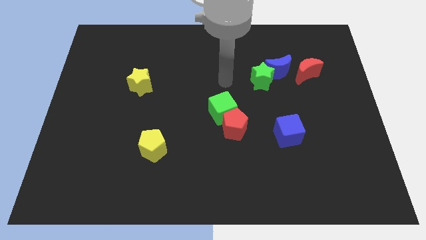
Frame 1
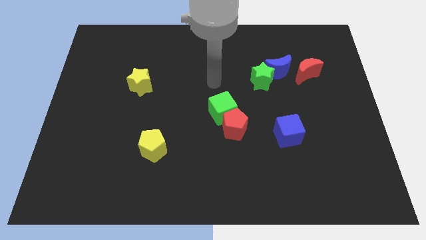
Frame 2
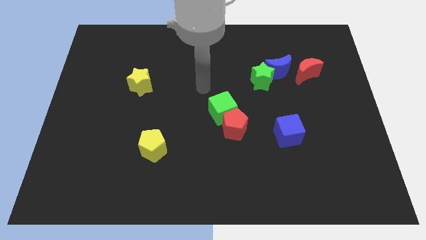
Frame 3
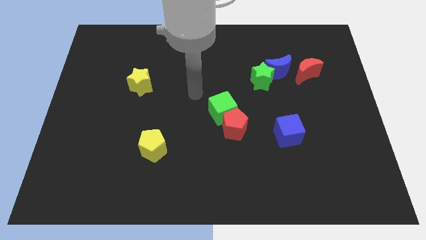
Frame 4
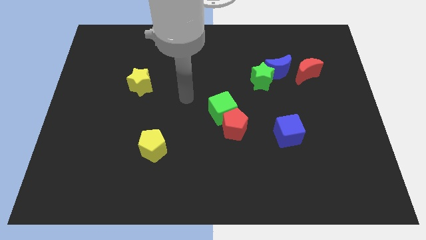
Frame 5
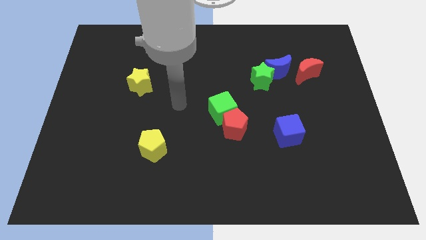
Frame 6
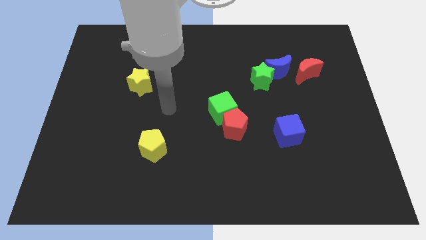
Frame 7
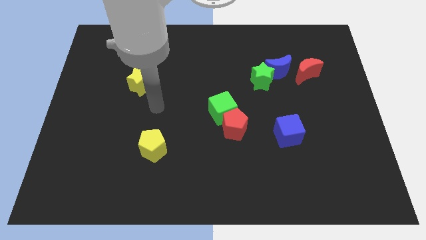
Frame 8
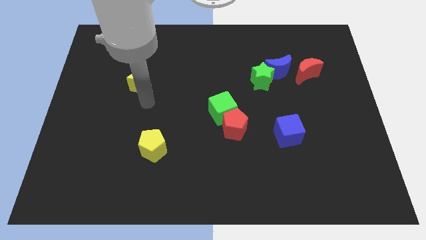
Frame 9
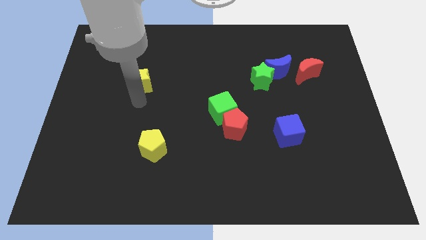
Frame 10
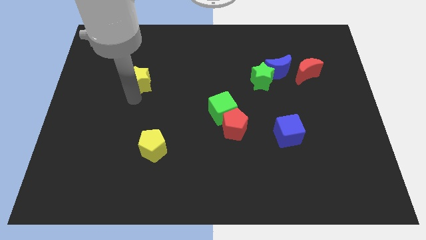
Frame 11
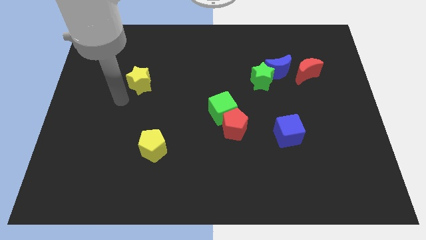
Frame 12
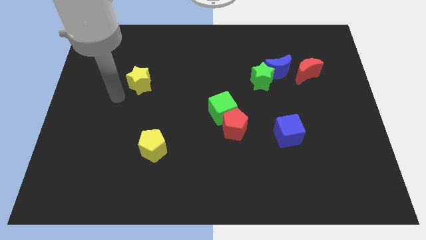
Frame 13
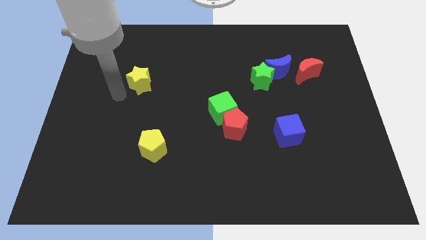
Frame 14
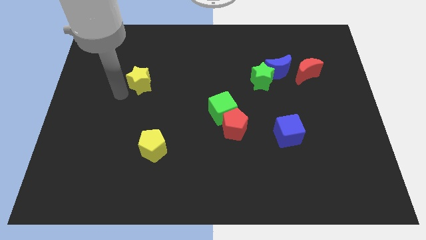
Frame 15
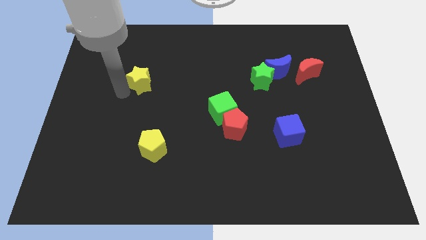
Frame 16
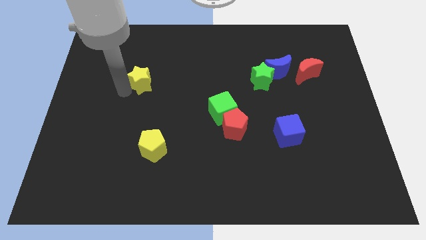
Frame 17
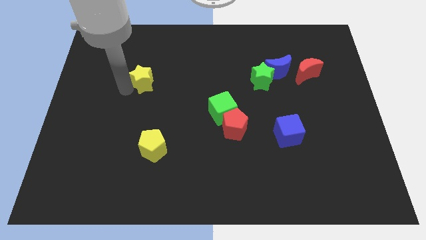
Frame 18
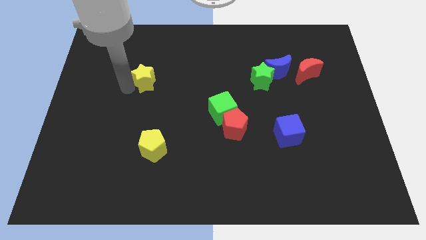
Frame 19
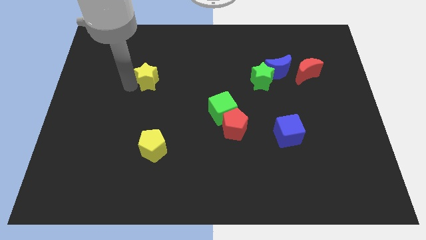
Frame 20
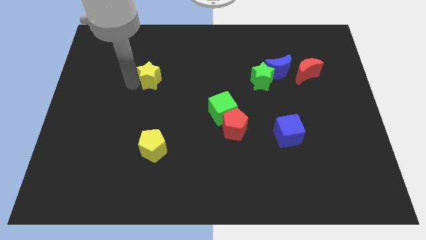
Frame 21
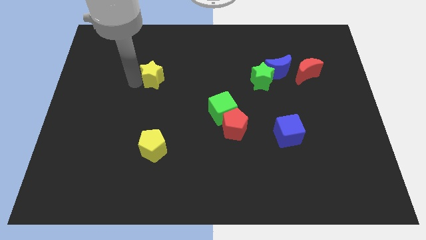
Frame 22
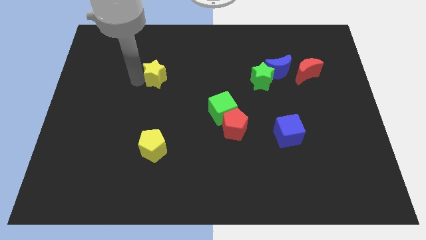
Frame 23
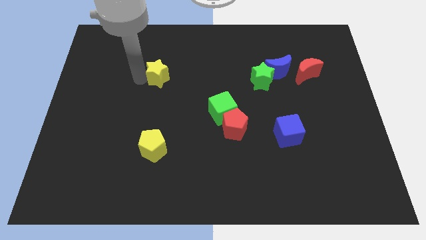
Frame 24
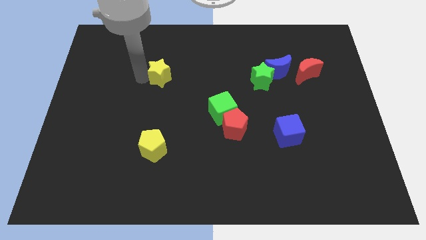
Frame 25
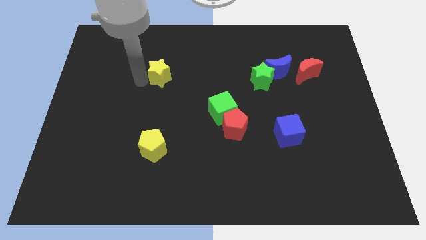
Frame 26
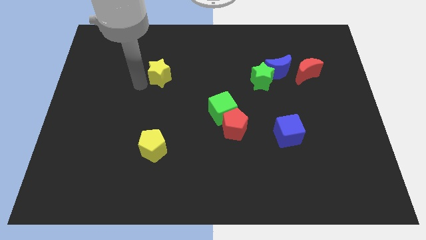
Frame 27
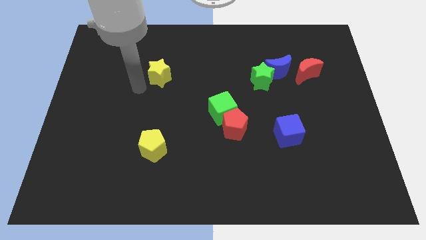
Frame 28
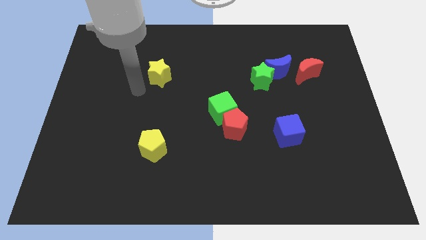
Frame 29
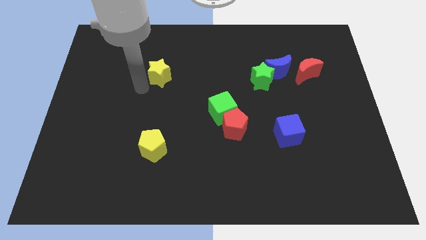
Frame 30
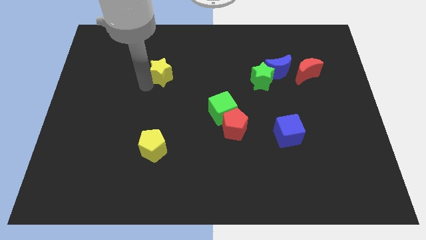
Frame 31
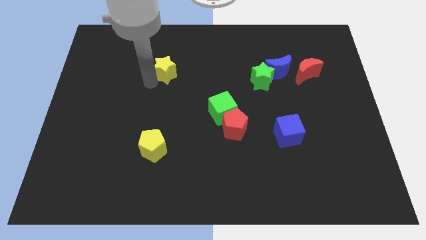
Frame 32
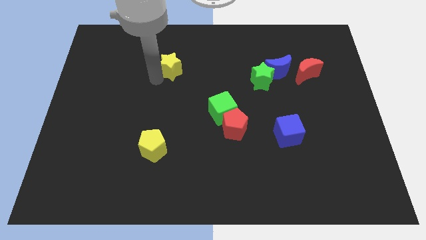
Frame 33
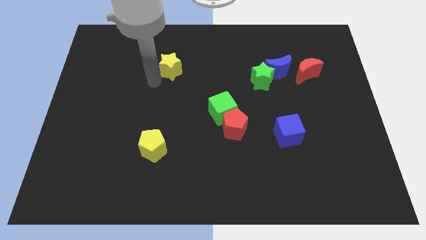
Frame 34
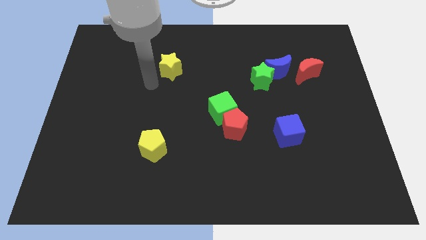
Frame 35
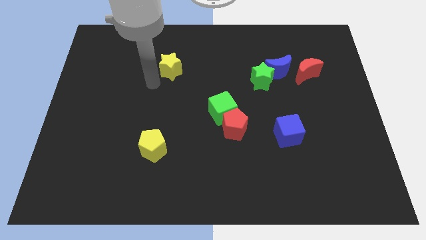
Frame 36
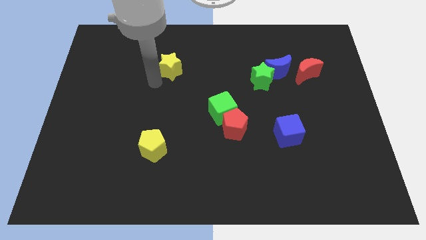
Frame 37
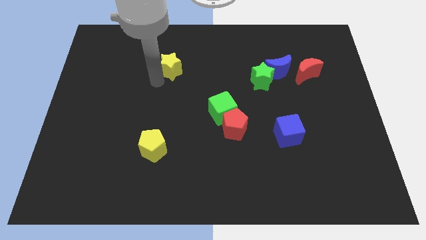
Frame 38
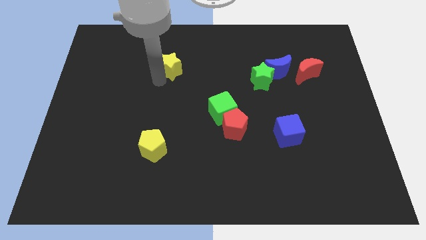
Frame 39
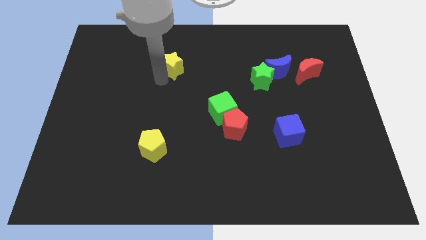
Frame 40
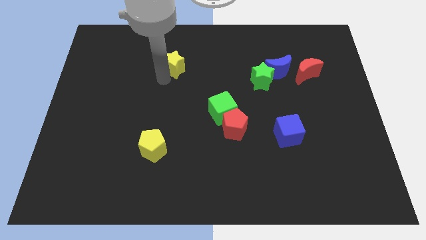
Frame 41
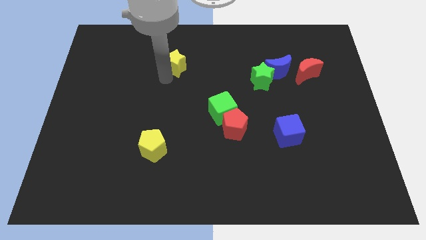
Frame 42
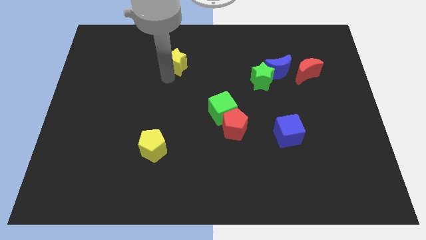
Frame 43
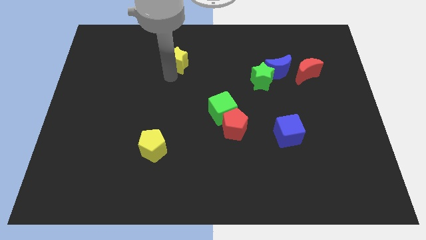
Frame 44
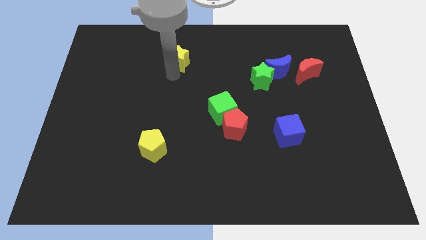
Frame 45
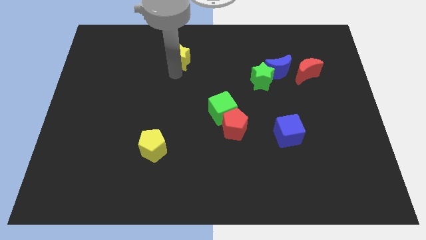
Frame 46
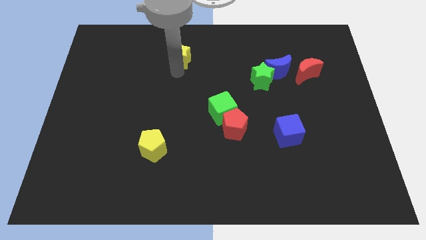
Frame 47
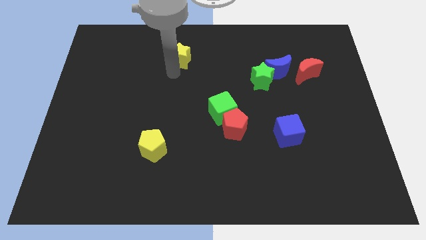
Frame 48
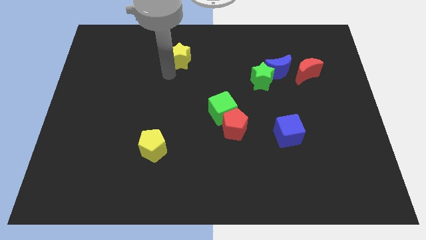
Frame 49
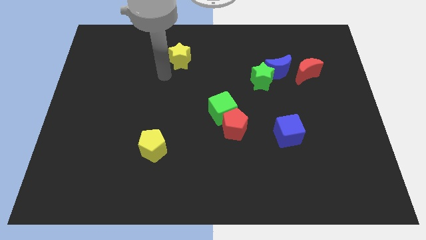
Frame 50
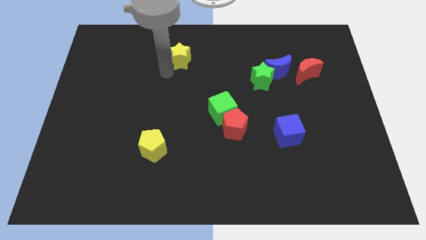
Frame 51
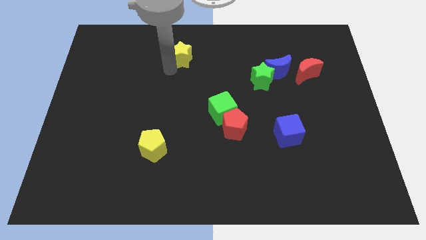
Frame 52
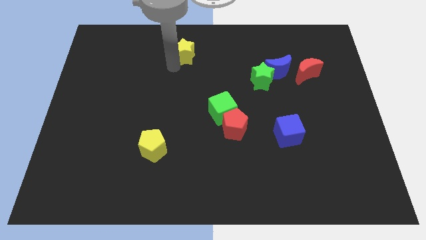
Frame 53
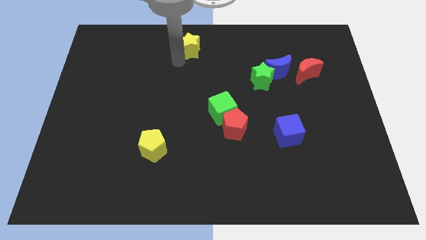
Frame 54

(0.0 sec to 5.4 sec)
slide the yellow star to the top side

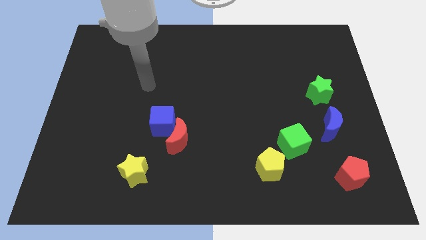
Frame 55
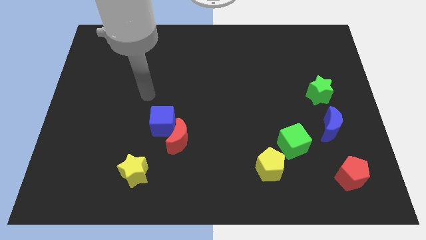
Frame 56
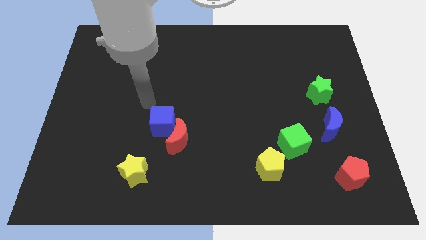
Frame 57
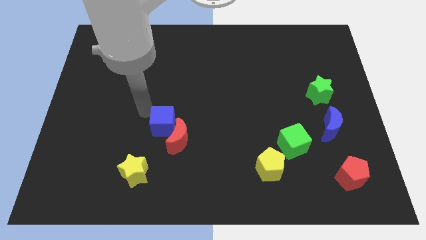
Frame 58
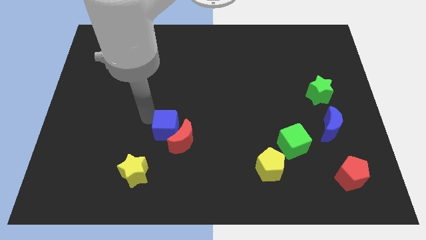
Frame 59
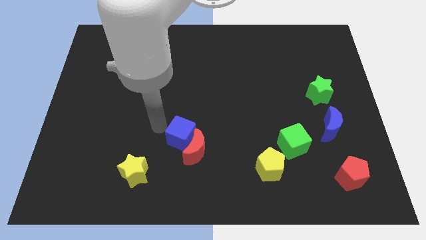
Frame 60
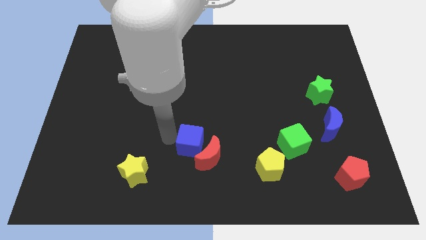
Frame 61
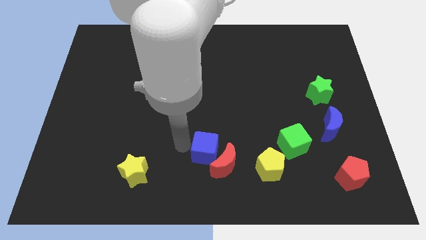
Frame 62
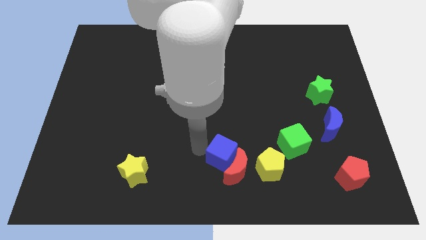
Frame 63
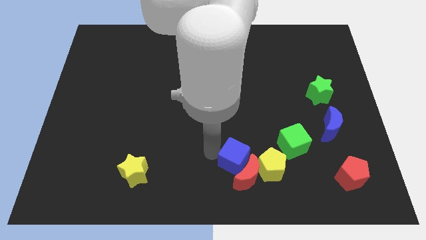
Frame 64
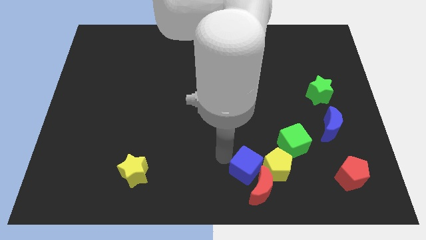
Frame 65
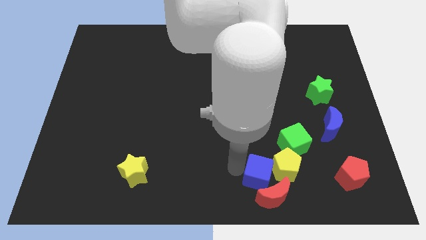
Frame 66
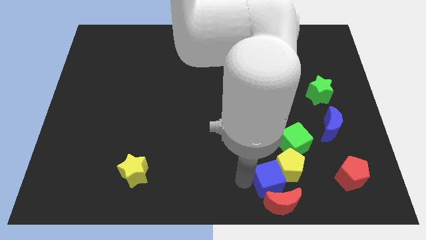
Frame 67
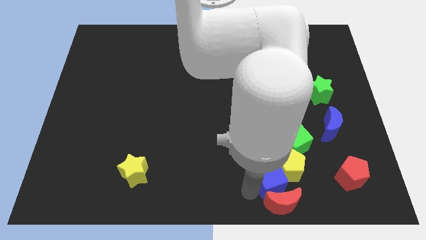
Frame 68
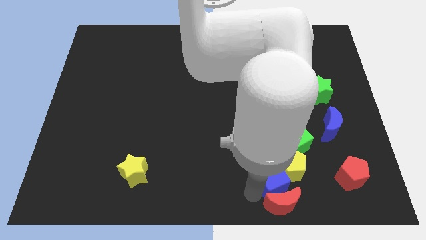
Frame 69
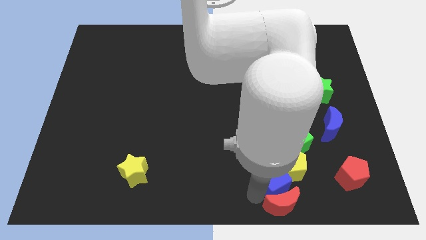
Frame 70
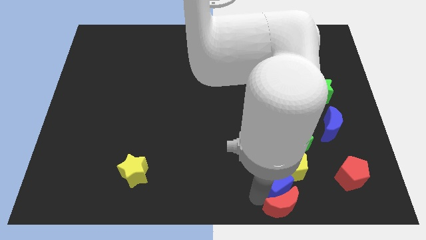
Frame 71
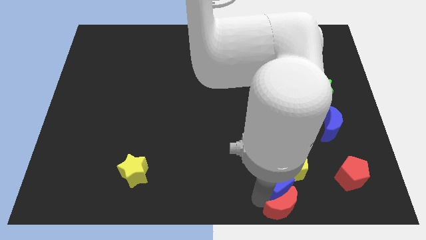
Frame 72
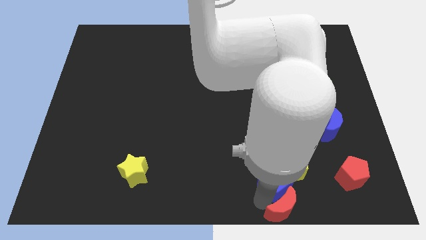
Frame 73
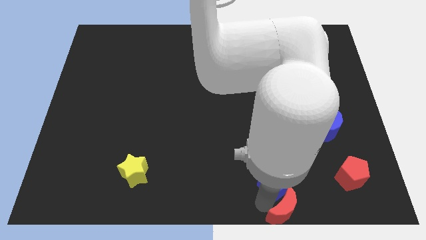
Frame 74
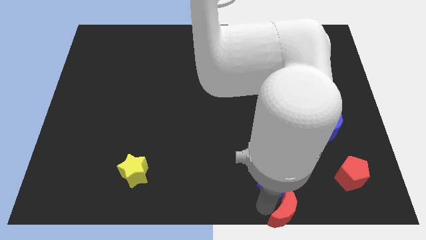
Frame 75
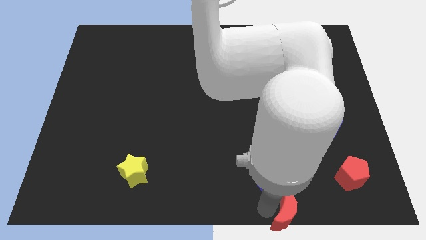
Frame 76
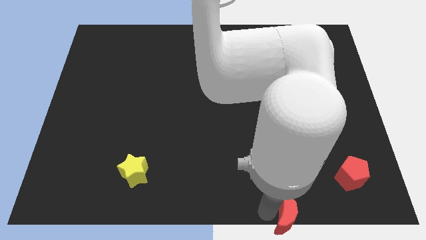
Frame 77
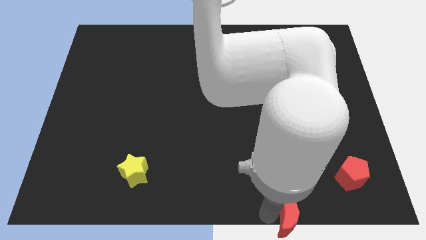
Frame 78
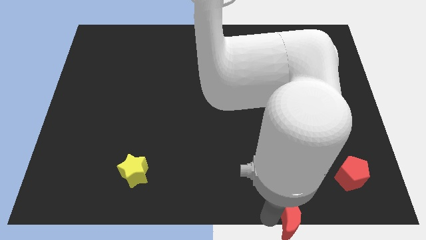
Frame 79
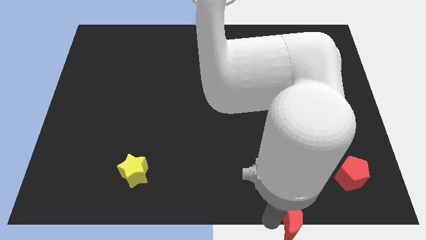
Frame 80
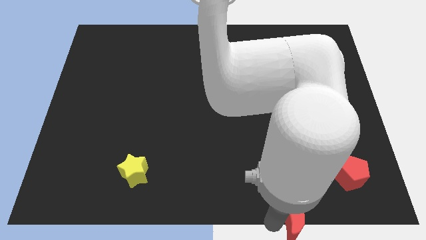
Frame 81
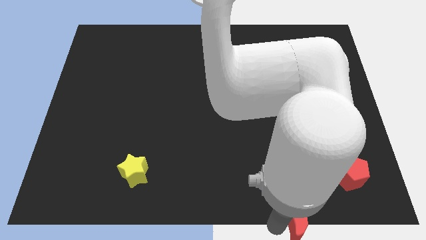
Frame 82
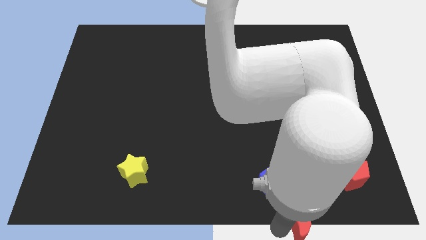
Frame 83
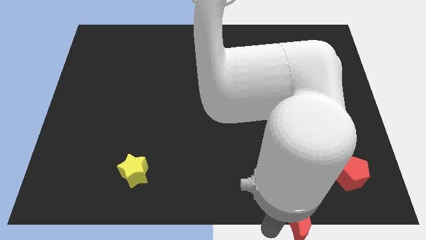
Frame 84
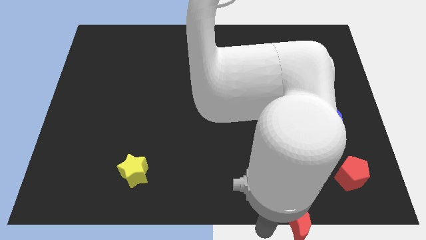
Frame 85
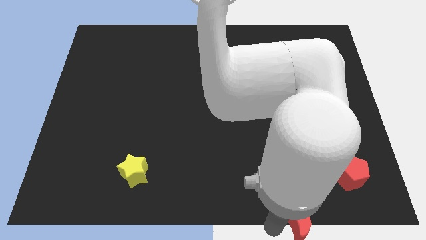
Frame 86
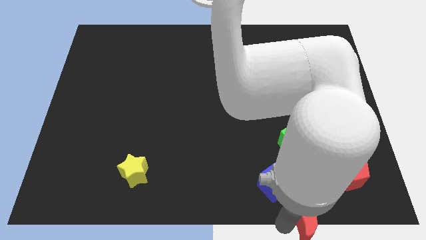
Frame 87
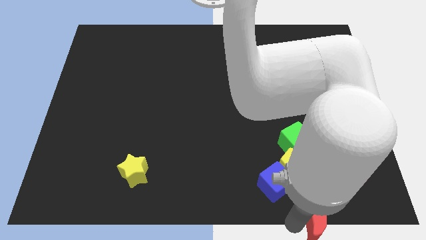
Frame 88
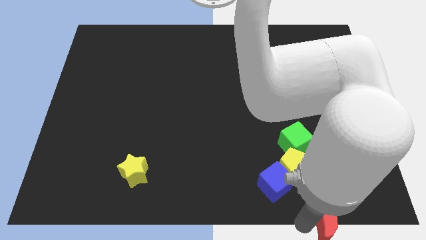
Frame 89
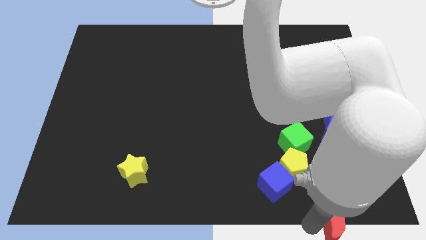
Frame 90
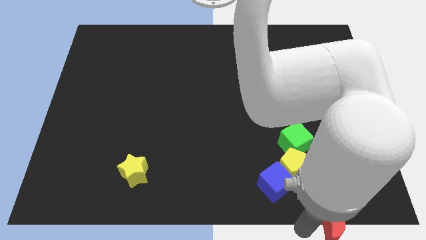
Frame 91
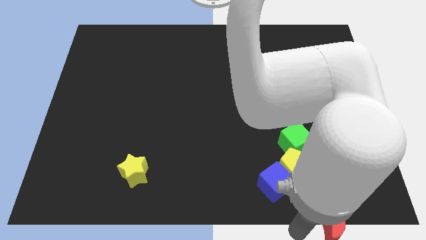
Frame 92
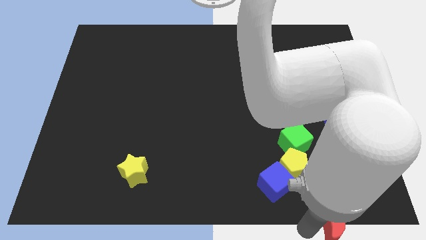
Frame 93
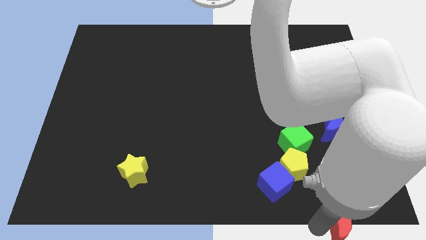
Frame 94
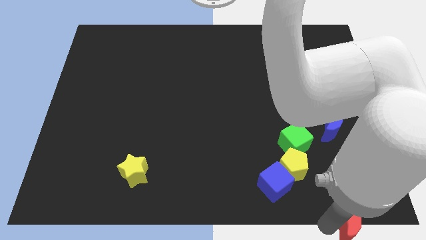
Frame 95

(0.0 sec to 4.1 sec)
put the red moon to the bottom right of the board
